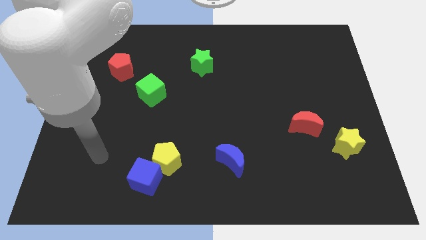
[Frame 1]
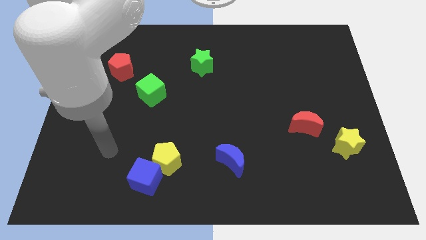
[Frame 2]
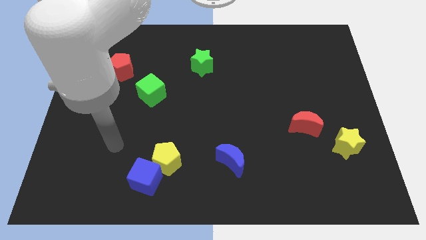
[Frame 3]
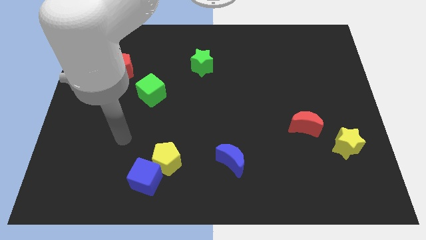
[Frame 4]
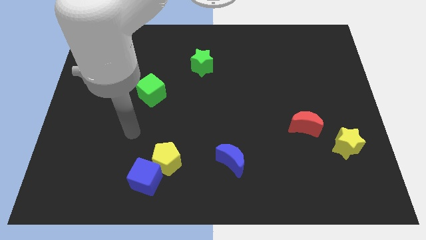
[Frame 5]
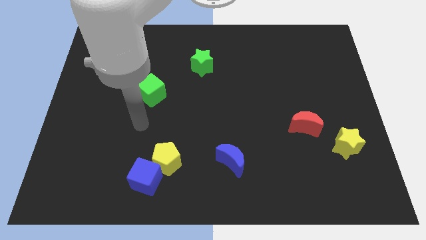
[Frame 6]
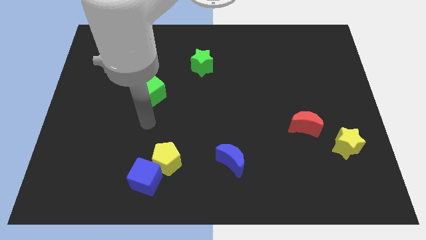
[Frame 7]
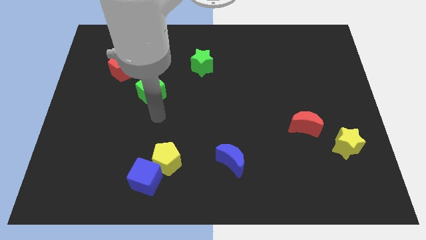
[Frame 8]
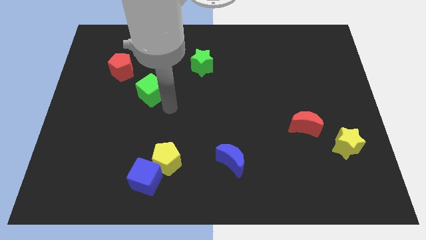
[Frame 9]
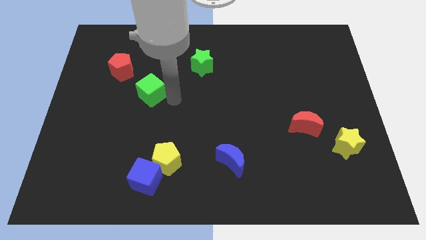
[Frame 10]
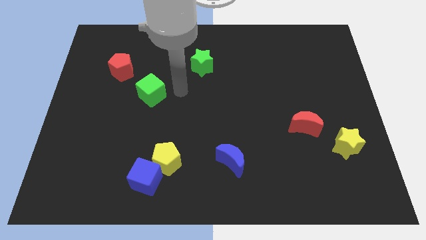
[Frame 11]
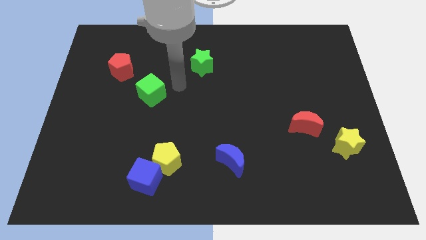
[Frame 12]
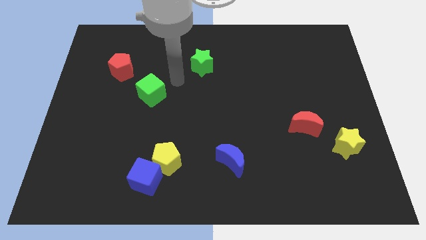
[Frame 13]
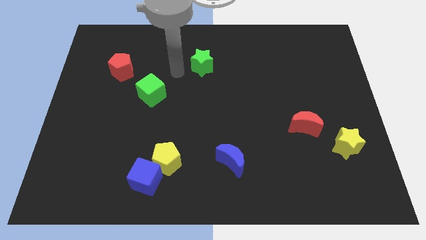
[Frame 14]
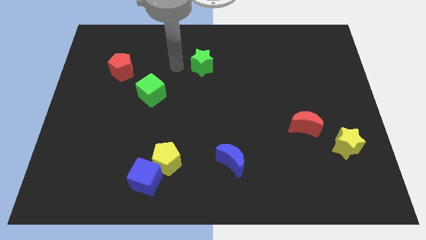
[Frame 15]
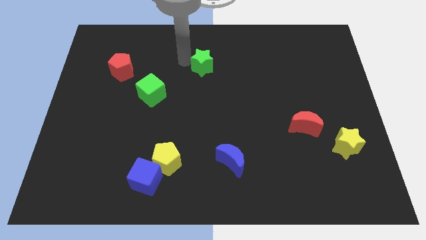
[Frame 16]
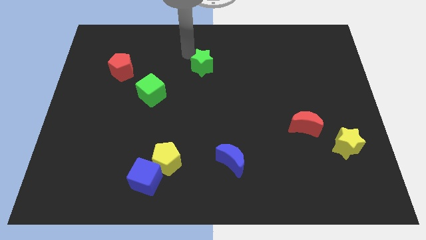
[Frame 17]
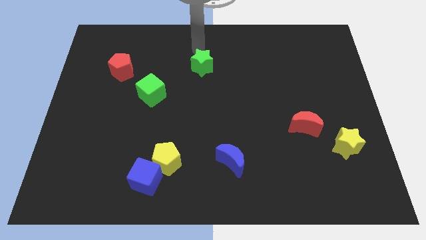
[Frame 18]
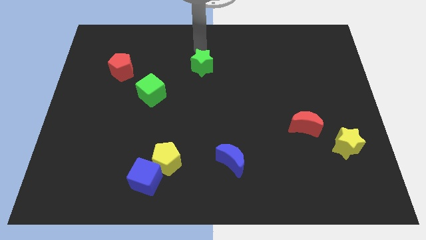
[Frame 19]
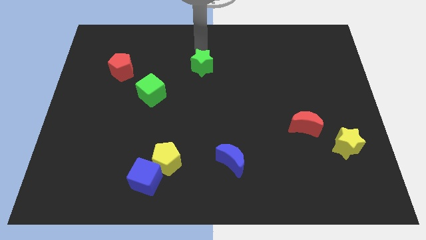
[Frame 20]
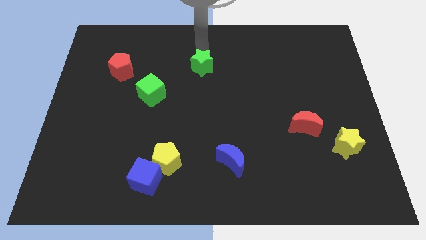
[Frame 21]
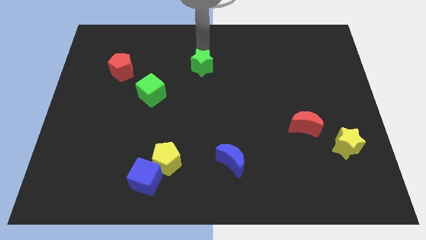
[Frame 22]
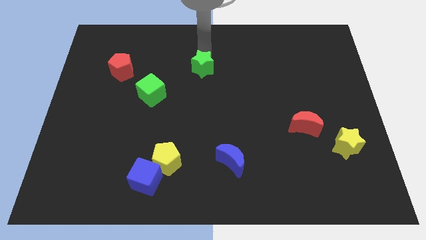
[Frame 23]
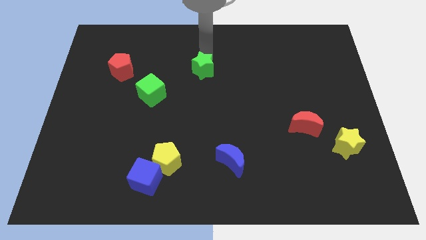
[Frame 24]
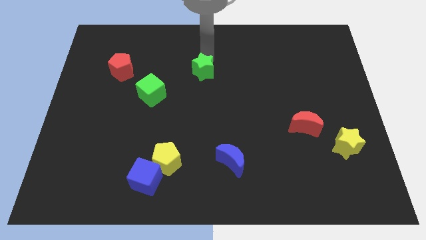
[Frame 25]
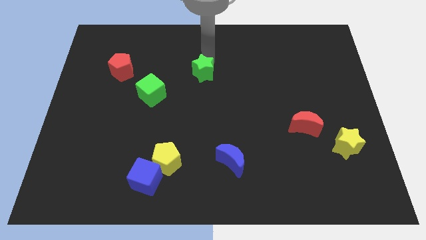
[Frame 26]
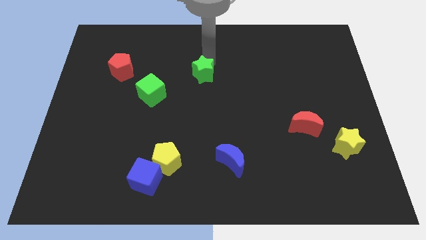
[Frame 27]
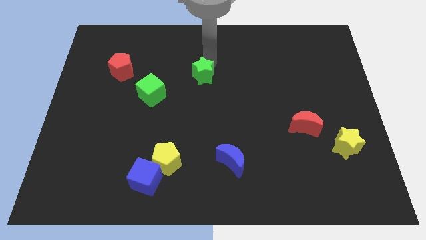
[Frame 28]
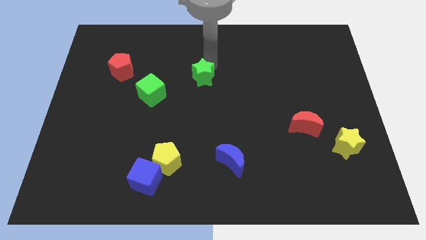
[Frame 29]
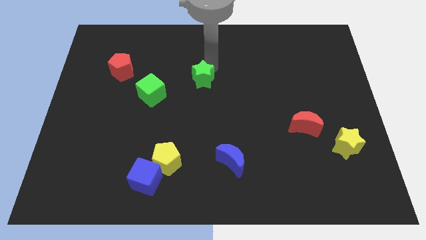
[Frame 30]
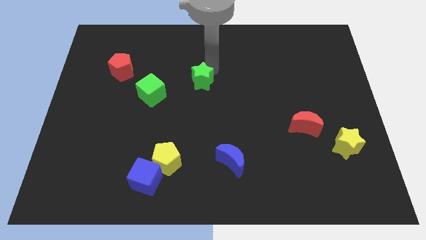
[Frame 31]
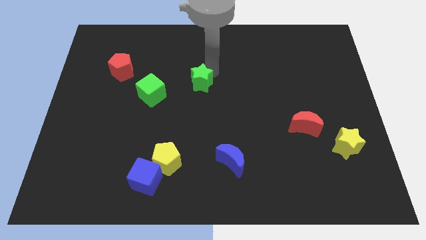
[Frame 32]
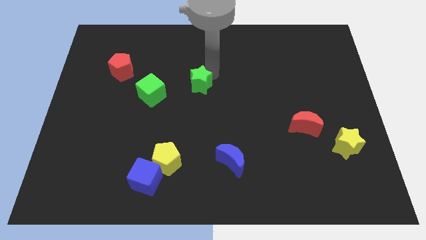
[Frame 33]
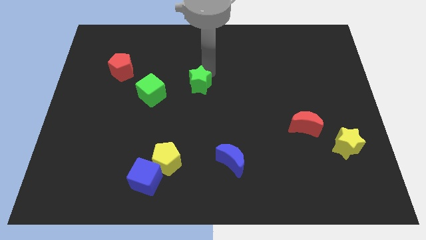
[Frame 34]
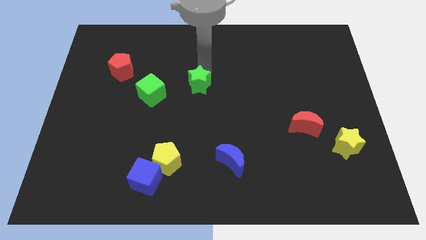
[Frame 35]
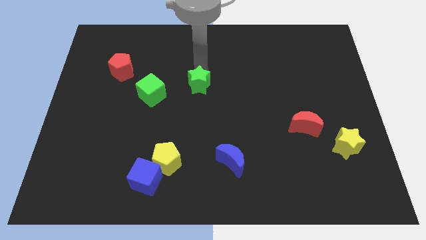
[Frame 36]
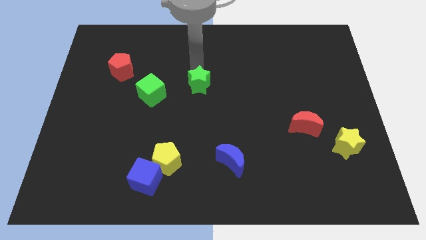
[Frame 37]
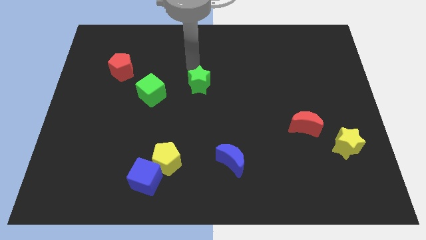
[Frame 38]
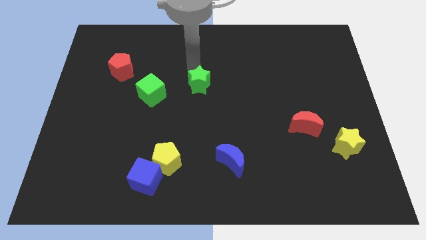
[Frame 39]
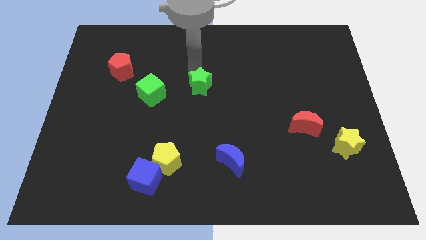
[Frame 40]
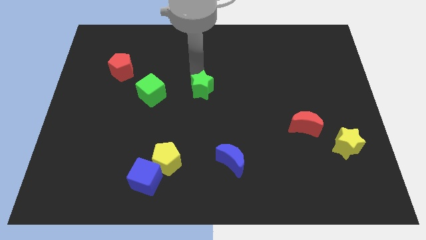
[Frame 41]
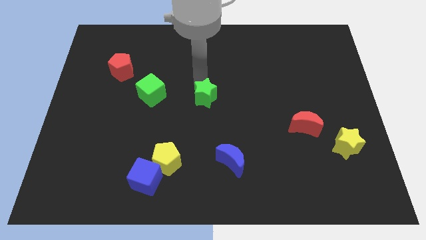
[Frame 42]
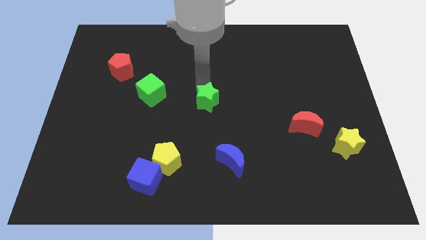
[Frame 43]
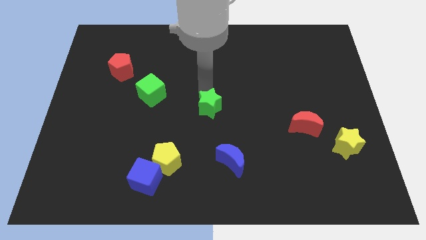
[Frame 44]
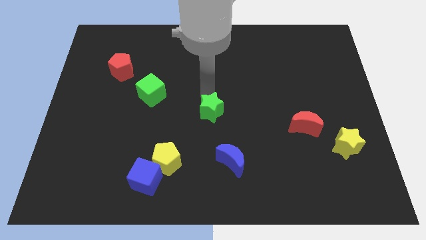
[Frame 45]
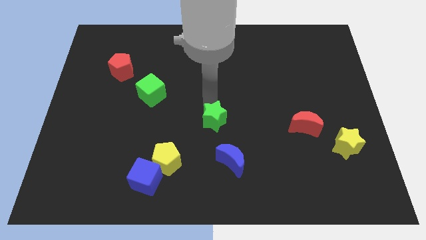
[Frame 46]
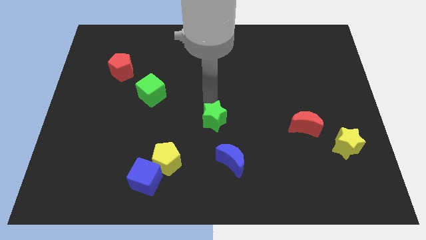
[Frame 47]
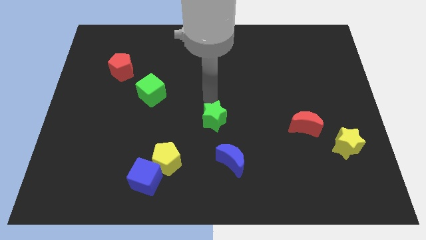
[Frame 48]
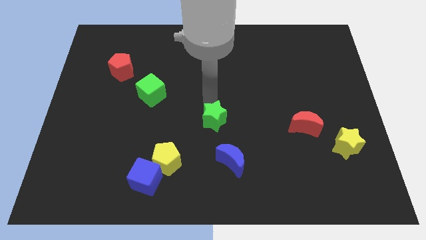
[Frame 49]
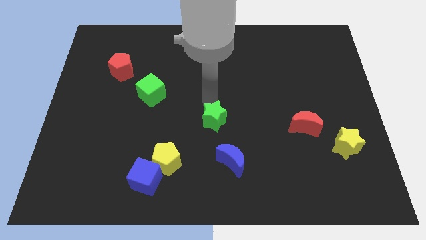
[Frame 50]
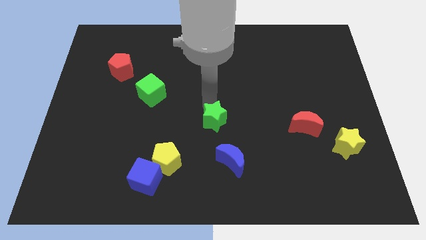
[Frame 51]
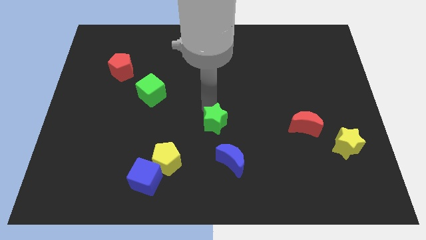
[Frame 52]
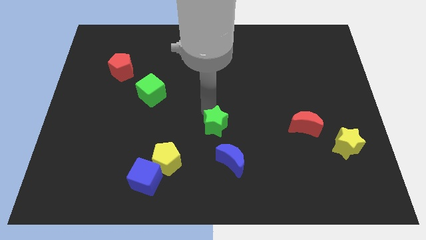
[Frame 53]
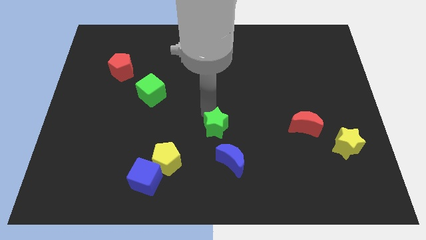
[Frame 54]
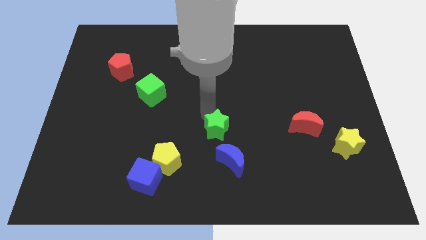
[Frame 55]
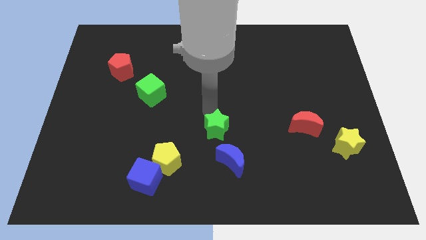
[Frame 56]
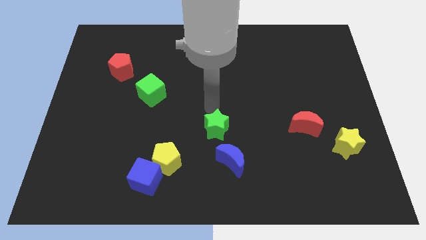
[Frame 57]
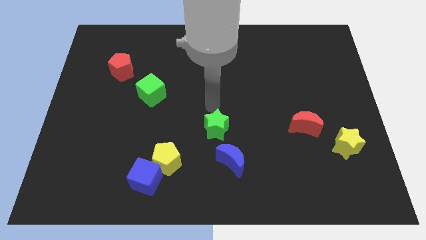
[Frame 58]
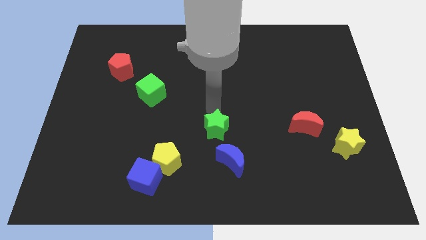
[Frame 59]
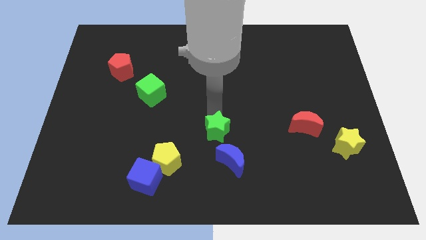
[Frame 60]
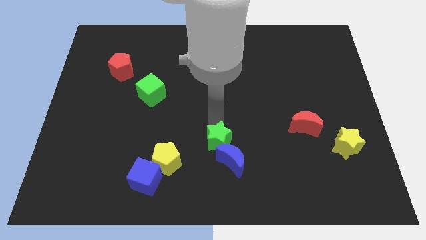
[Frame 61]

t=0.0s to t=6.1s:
put the green star next to the blue moon

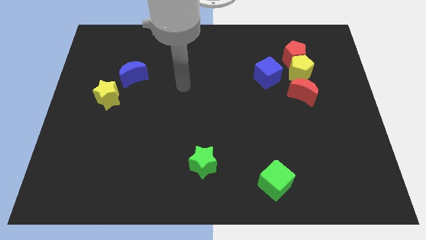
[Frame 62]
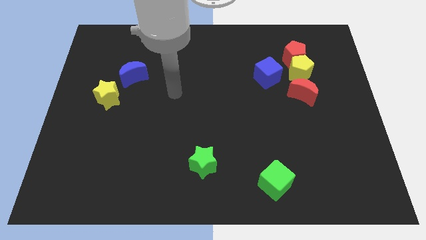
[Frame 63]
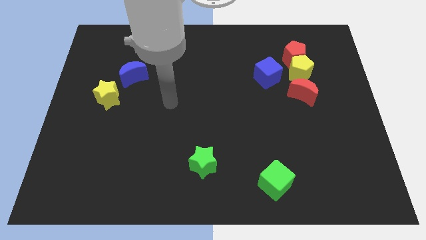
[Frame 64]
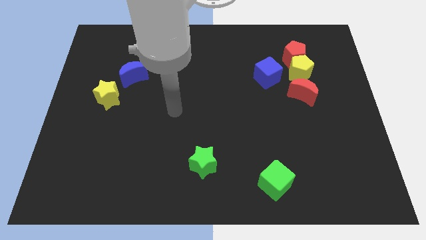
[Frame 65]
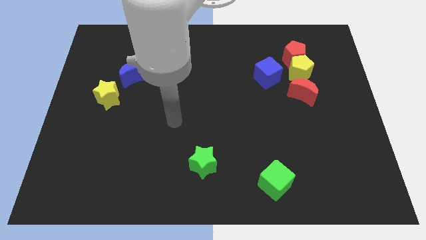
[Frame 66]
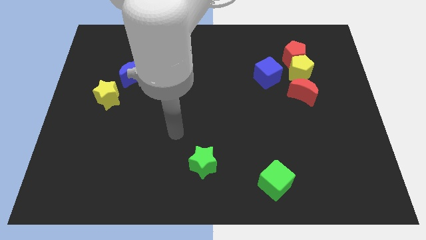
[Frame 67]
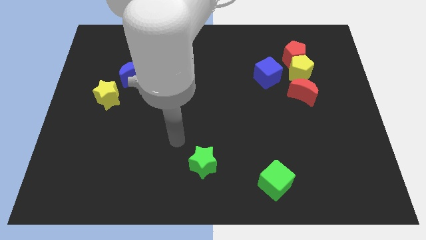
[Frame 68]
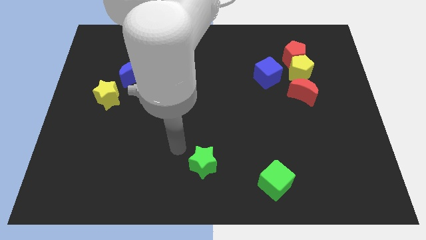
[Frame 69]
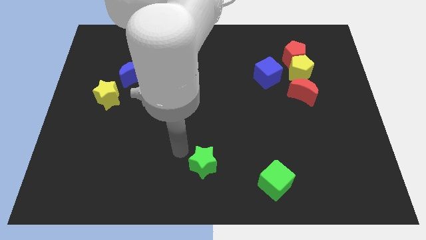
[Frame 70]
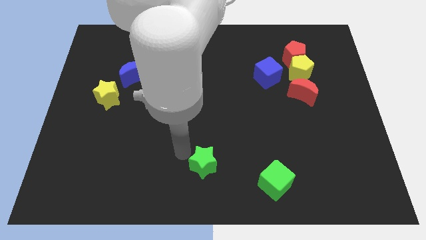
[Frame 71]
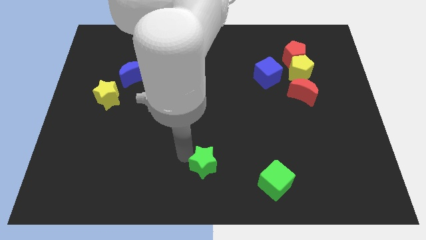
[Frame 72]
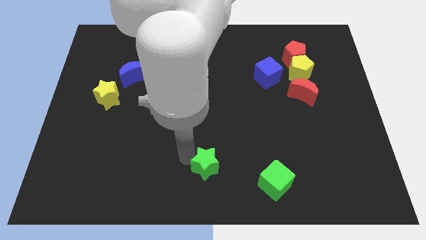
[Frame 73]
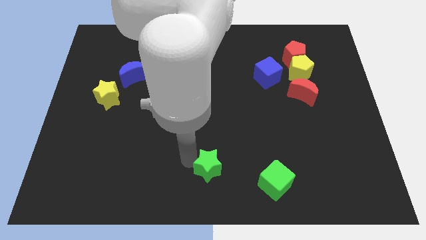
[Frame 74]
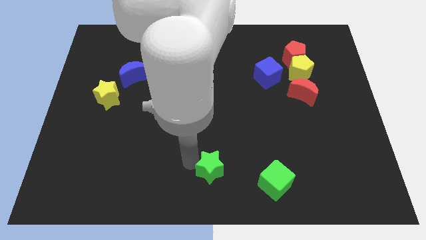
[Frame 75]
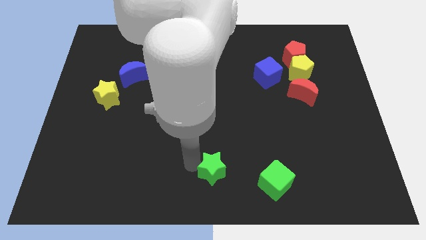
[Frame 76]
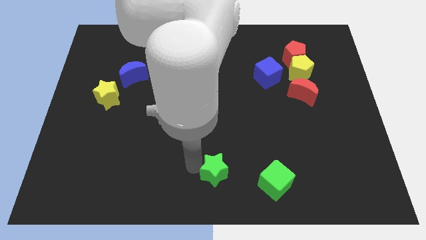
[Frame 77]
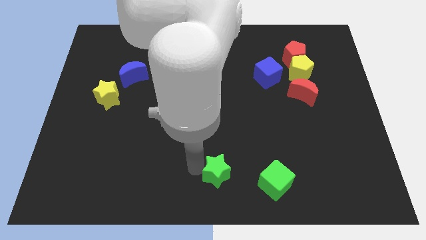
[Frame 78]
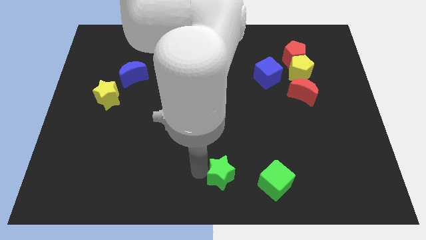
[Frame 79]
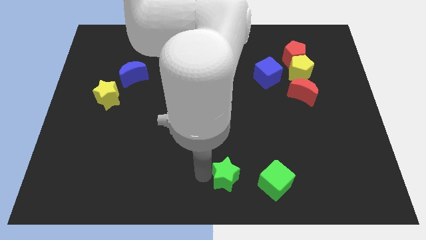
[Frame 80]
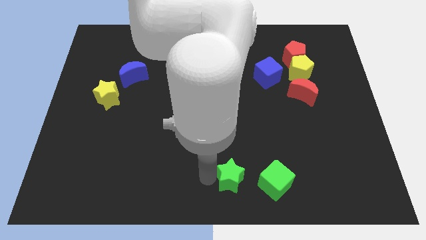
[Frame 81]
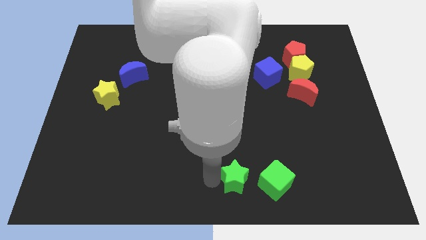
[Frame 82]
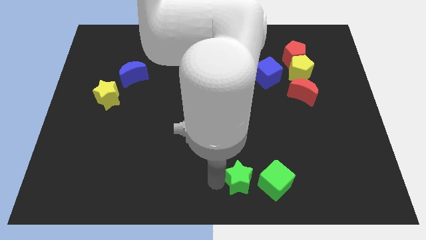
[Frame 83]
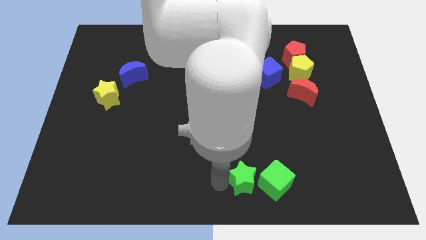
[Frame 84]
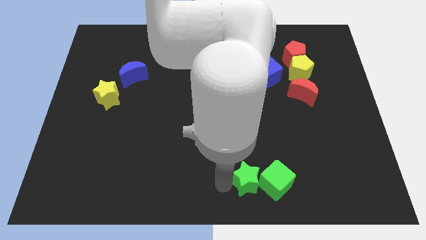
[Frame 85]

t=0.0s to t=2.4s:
slide the green star towards the green cube
